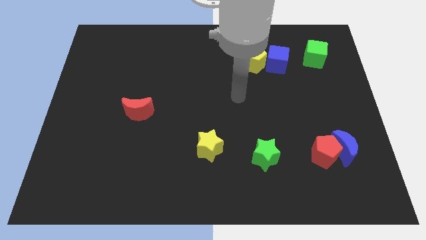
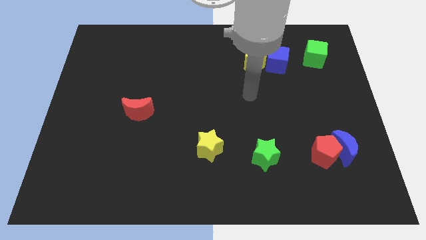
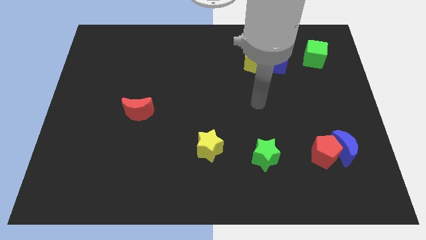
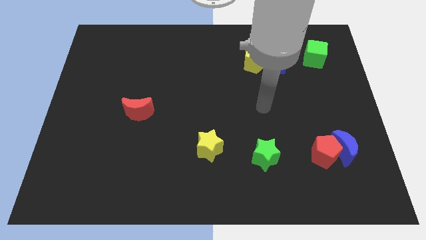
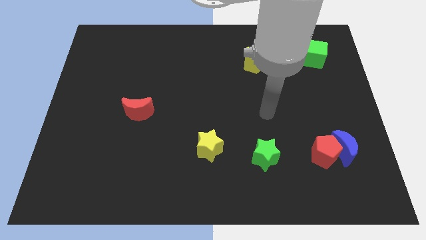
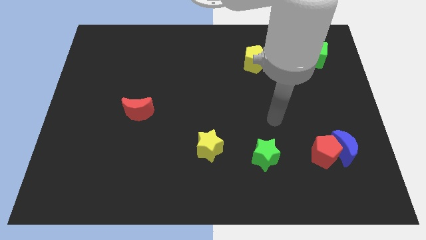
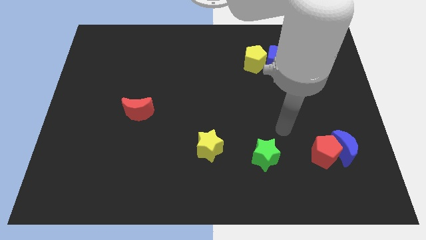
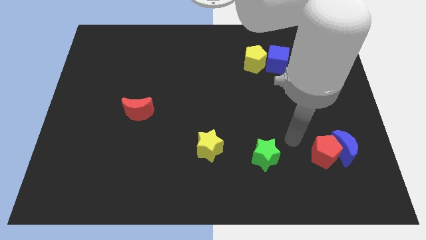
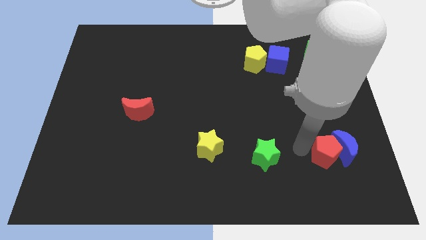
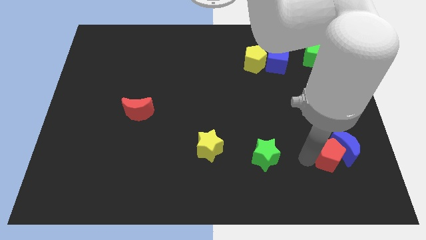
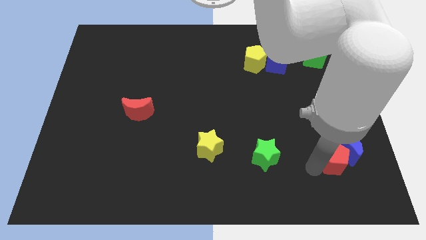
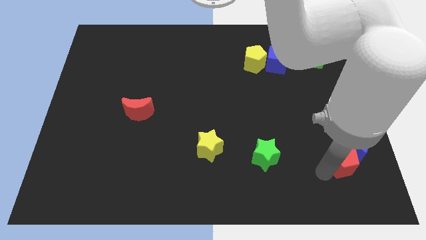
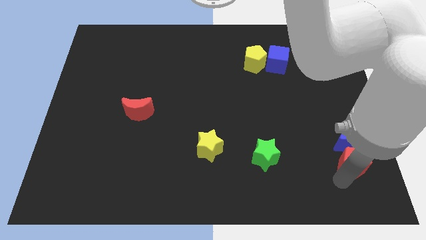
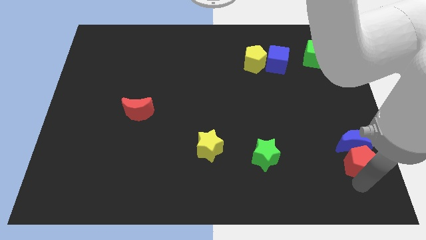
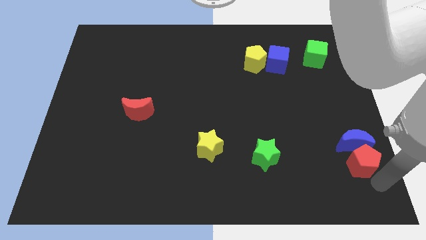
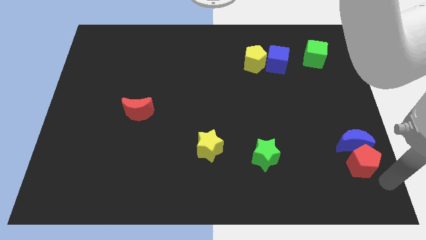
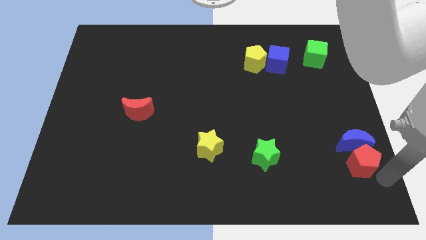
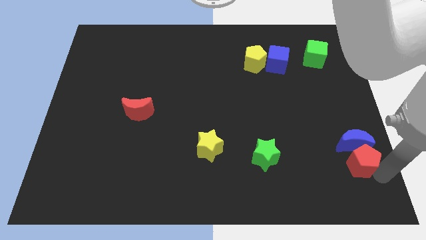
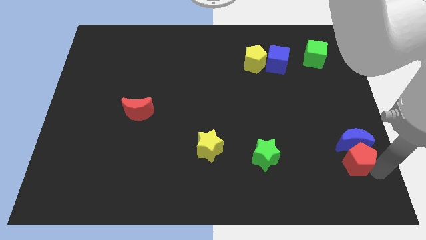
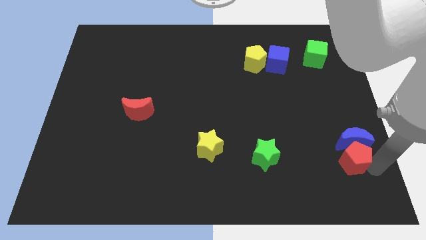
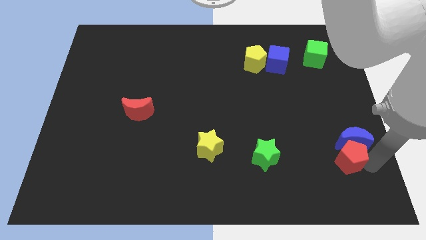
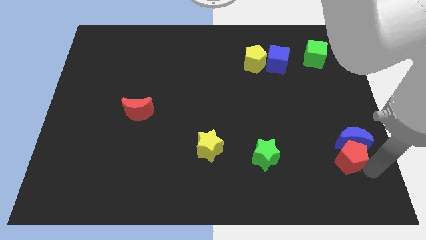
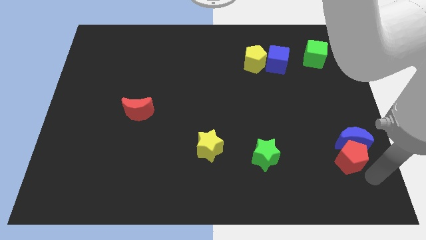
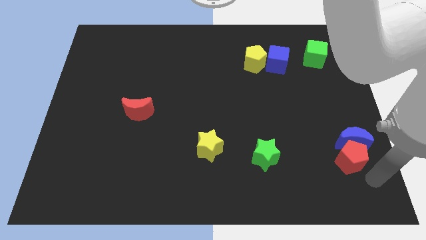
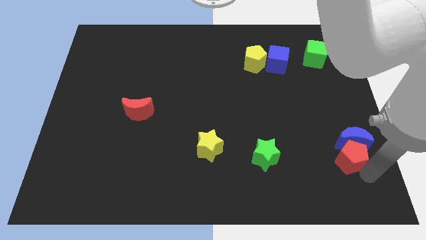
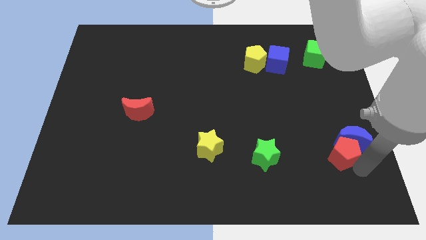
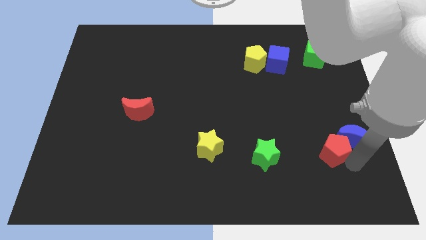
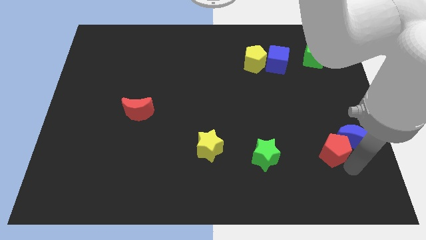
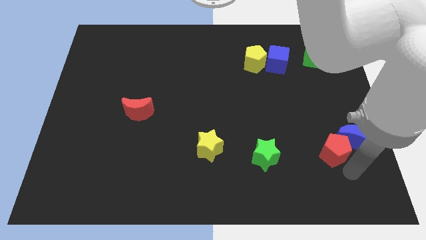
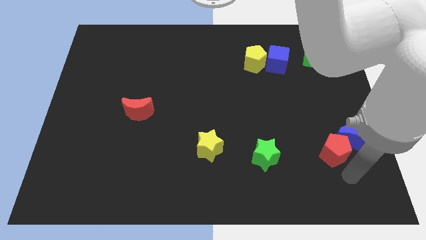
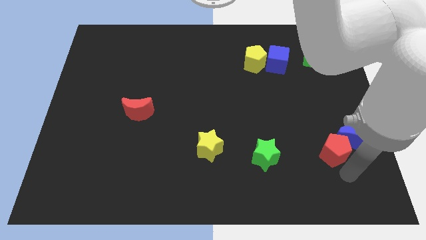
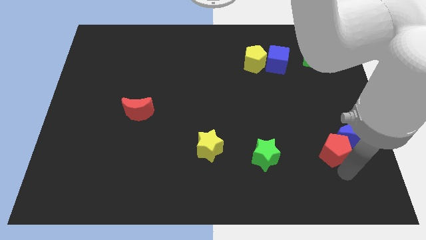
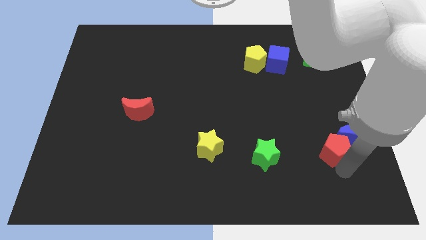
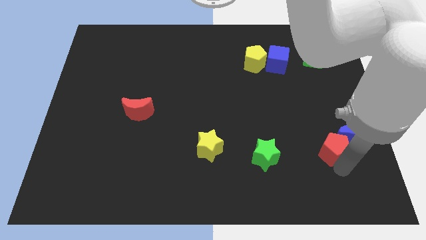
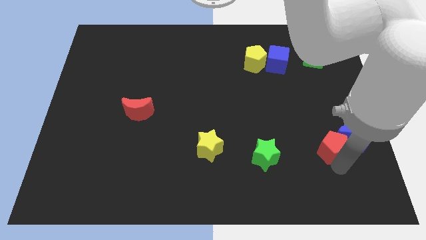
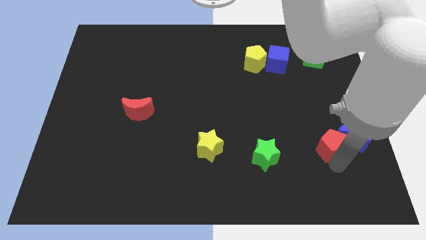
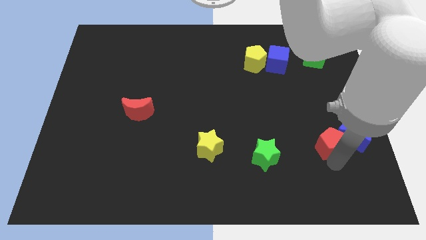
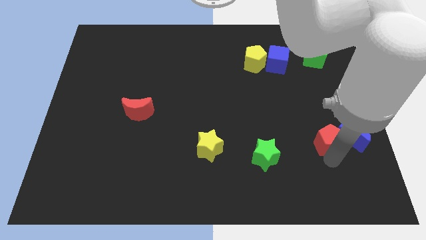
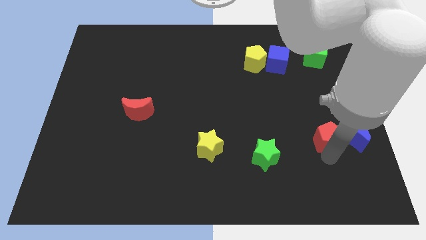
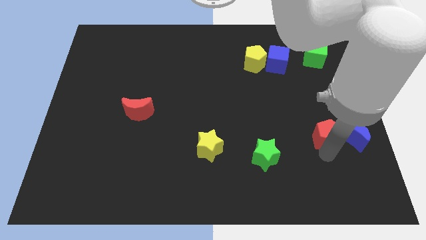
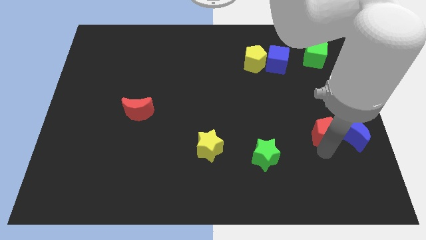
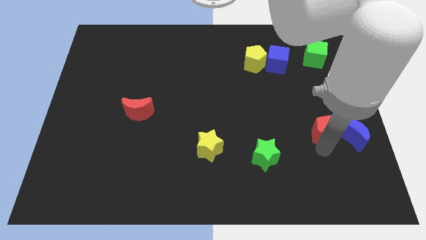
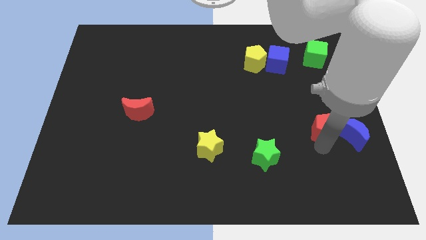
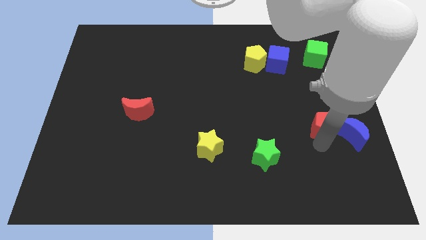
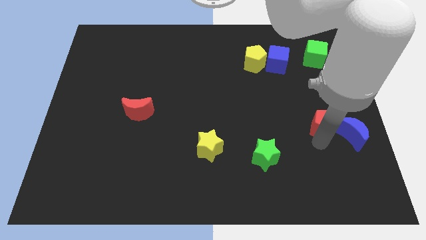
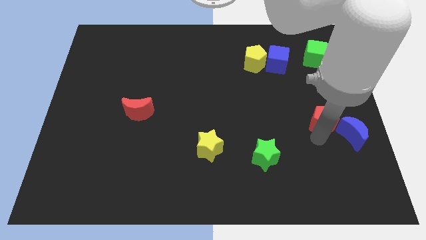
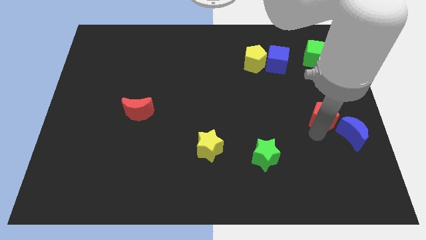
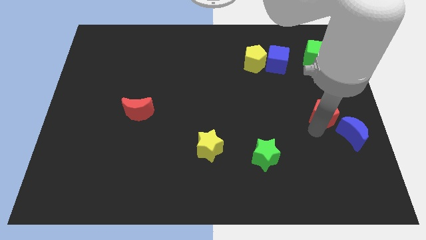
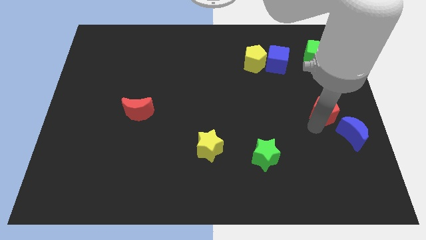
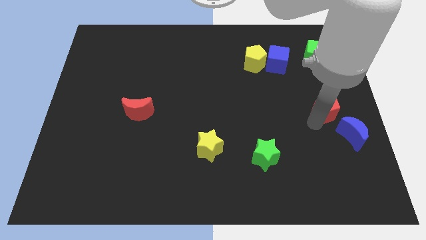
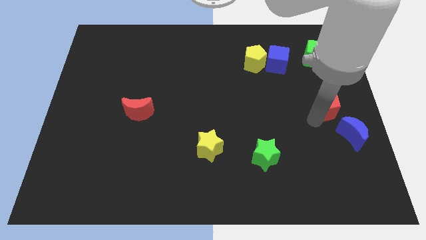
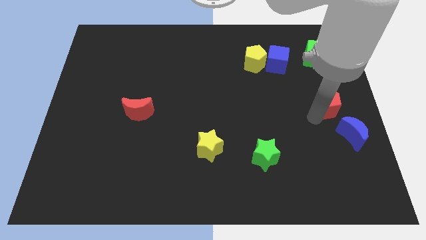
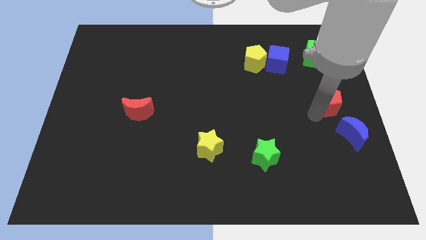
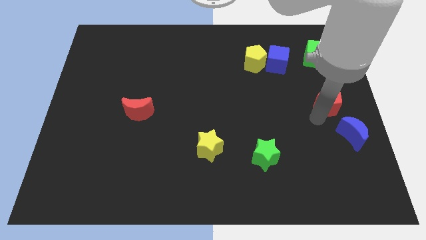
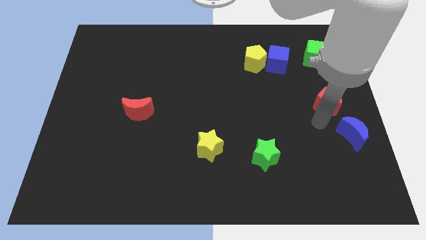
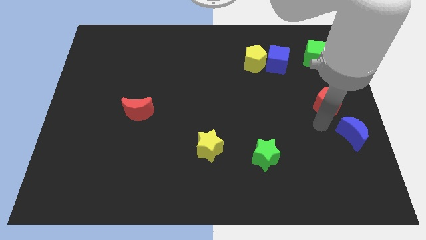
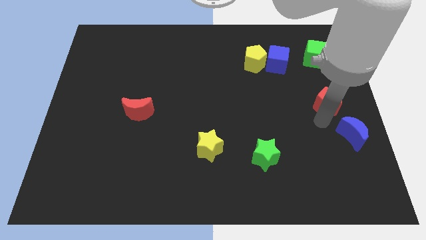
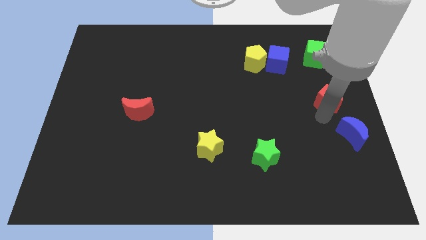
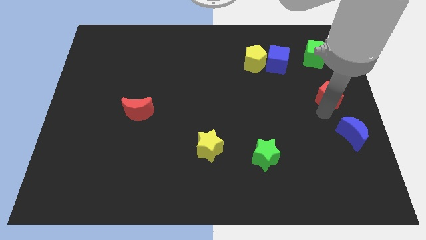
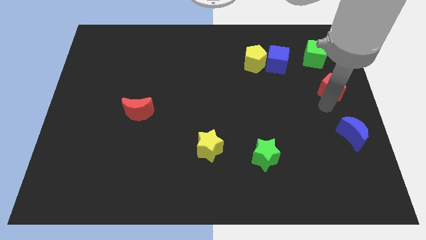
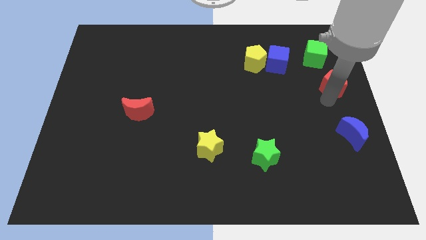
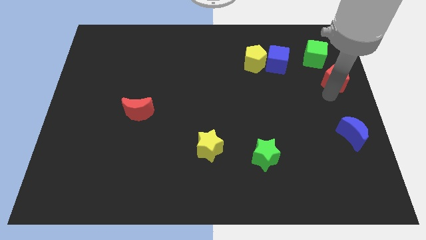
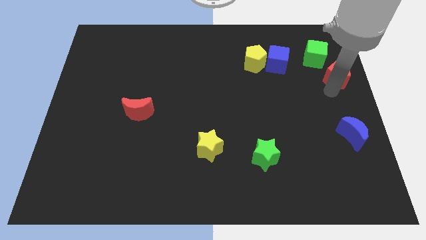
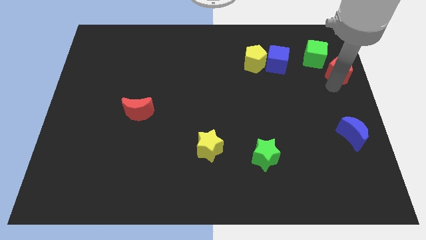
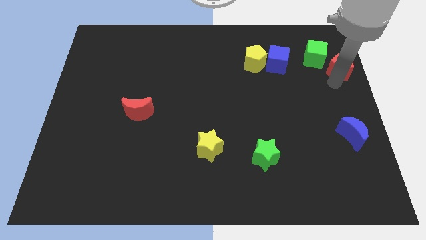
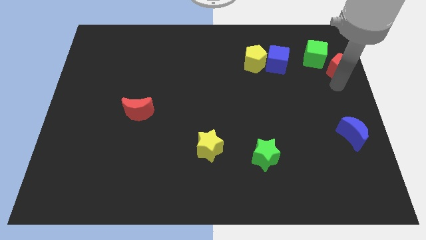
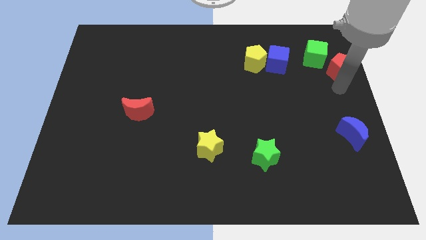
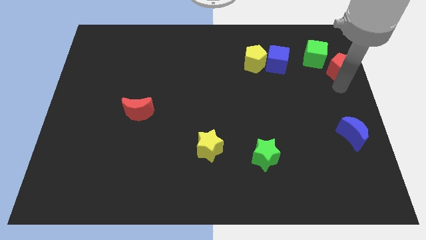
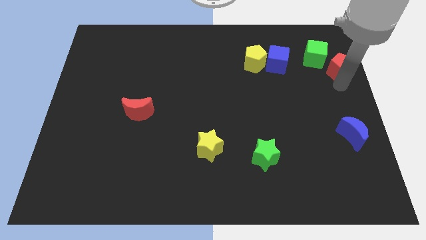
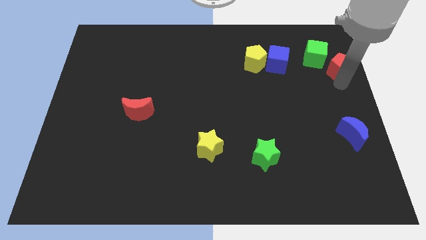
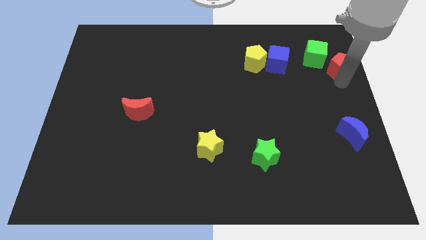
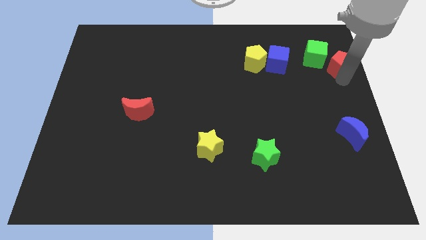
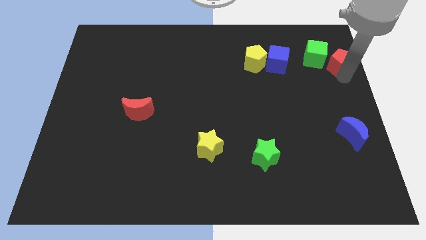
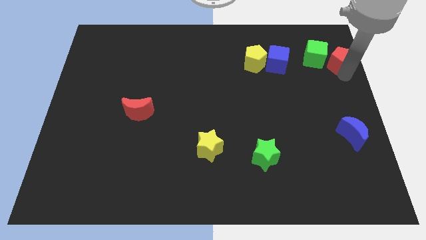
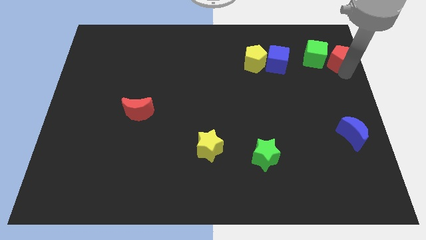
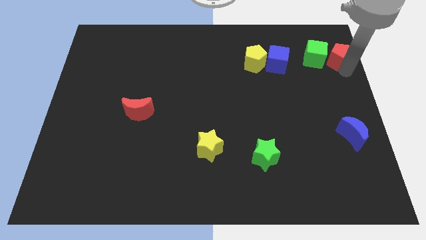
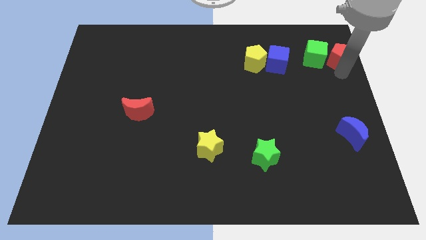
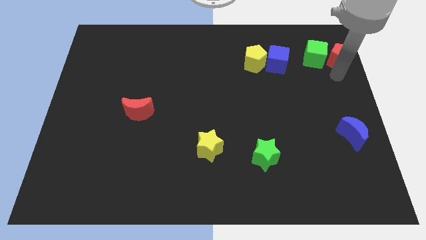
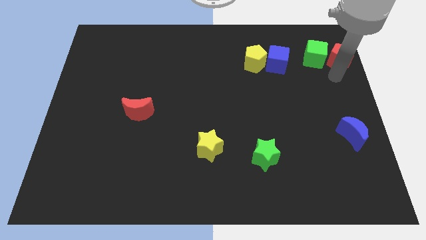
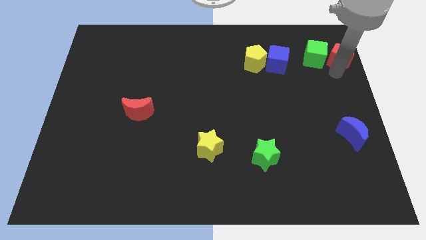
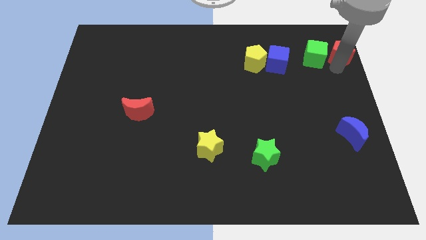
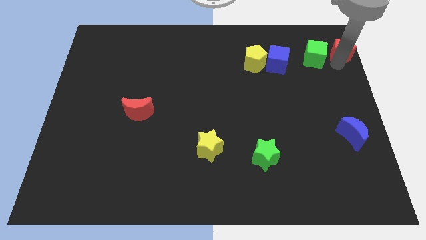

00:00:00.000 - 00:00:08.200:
push the red pentagon to the top right
